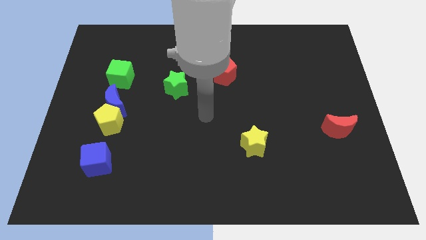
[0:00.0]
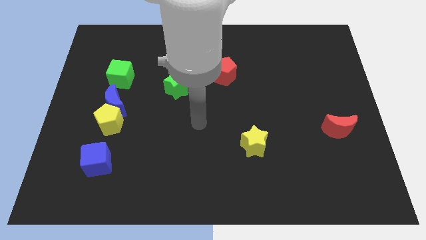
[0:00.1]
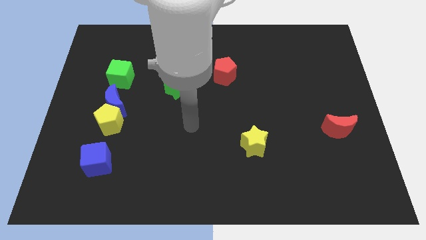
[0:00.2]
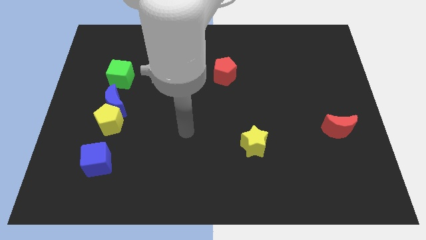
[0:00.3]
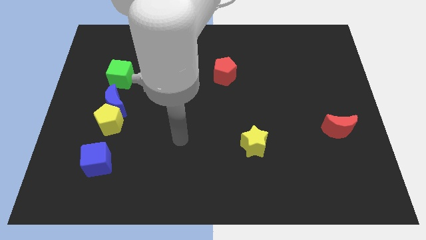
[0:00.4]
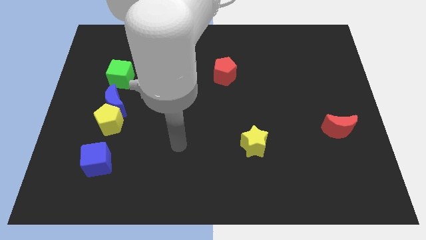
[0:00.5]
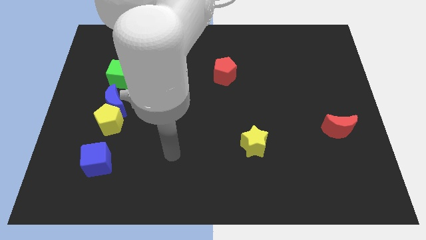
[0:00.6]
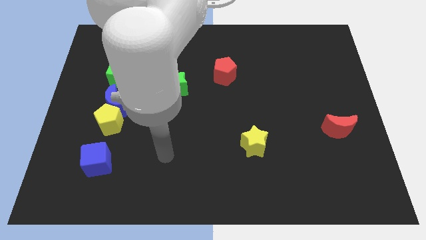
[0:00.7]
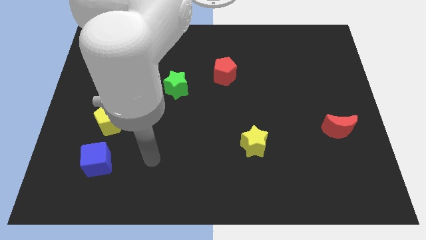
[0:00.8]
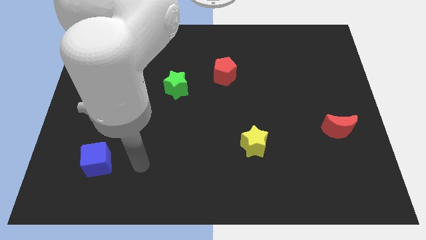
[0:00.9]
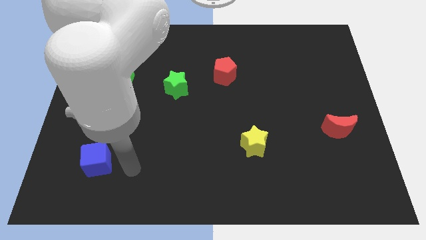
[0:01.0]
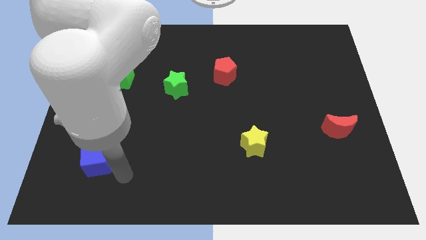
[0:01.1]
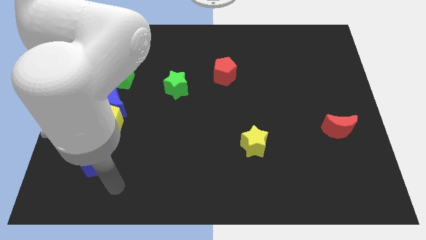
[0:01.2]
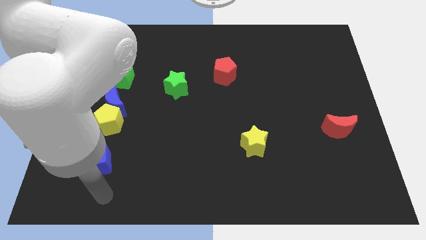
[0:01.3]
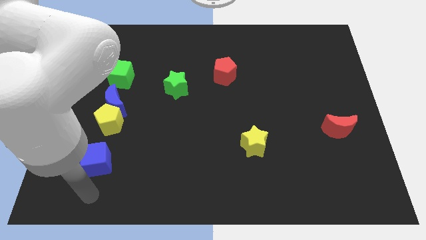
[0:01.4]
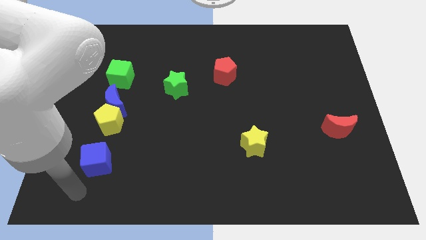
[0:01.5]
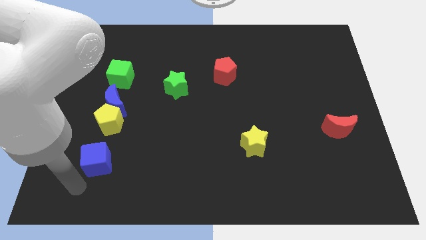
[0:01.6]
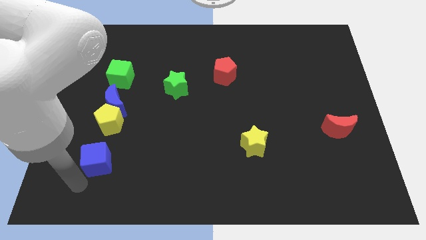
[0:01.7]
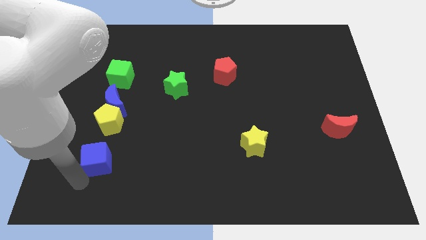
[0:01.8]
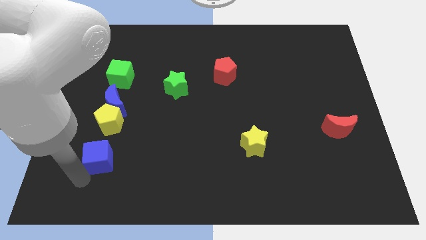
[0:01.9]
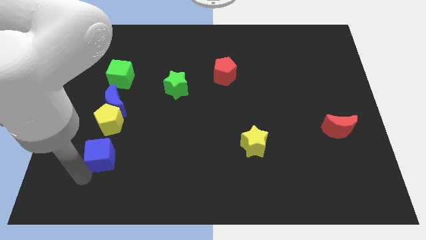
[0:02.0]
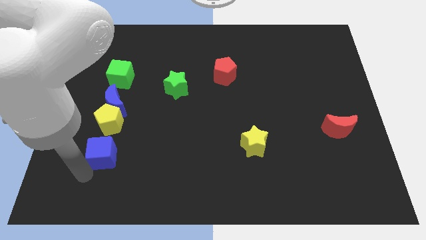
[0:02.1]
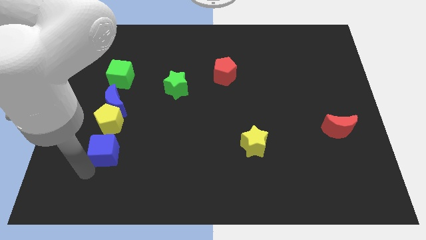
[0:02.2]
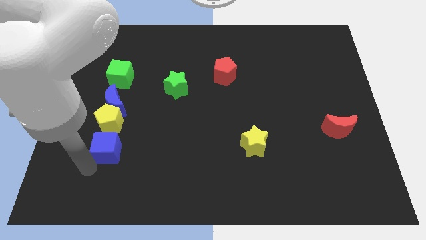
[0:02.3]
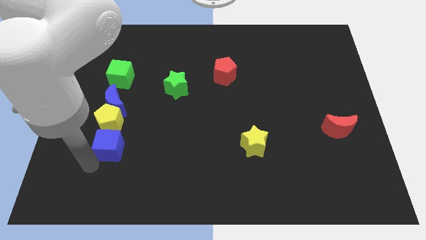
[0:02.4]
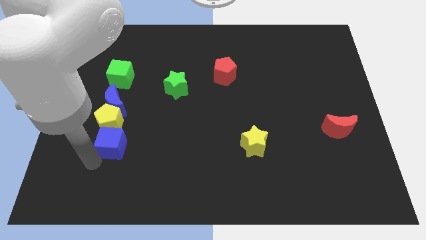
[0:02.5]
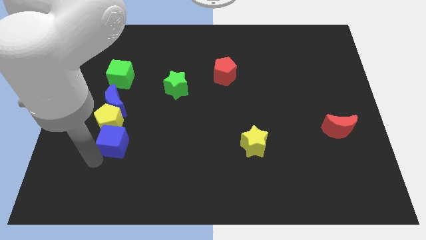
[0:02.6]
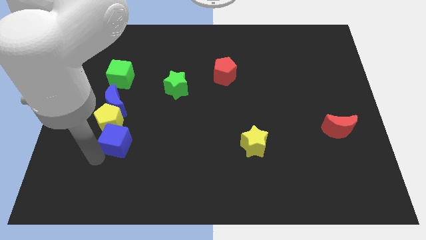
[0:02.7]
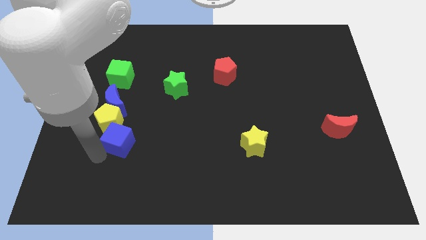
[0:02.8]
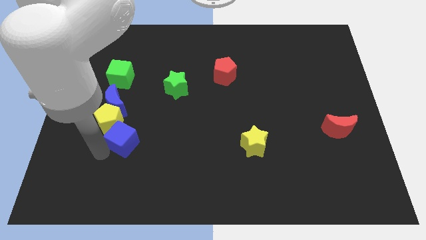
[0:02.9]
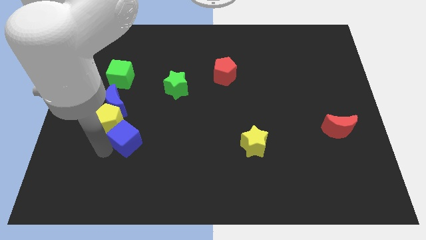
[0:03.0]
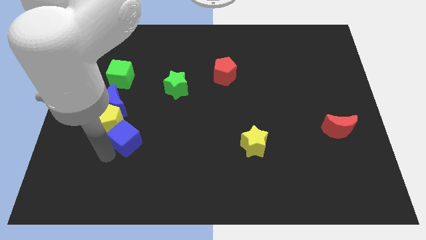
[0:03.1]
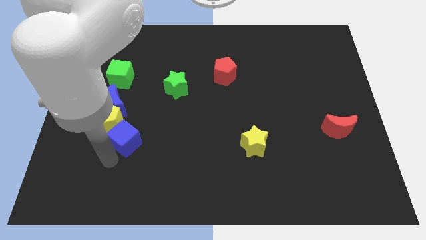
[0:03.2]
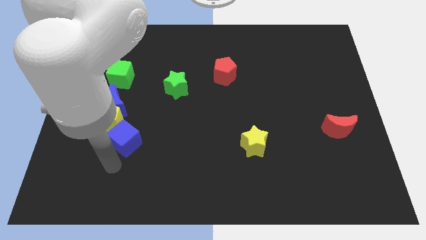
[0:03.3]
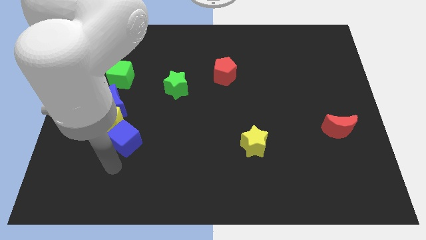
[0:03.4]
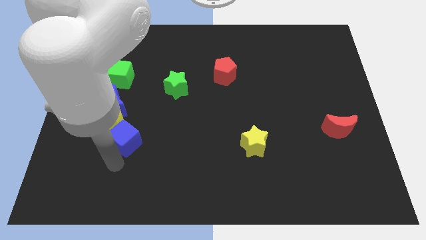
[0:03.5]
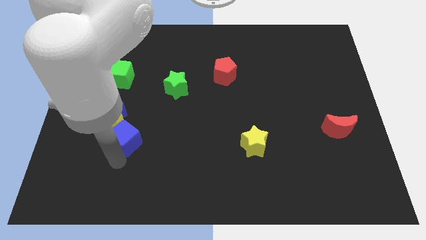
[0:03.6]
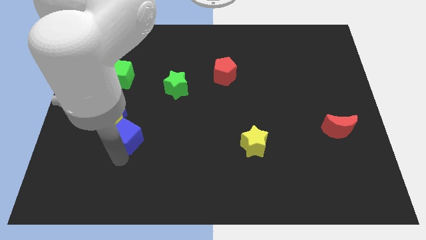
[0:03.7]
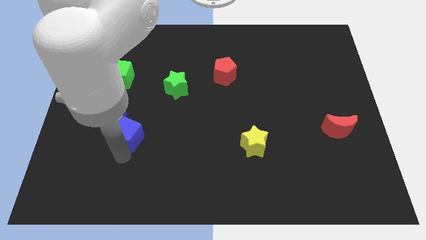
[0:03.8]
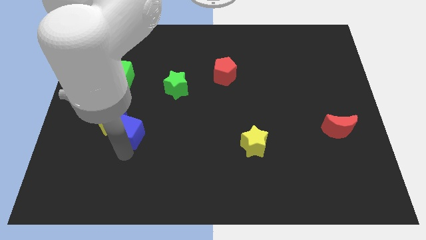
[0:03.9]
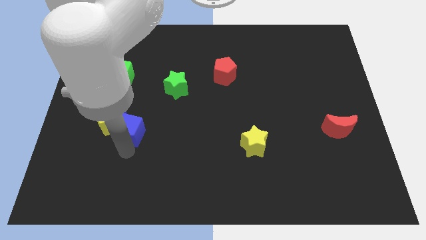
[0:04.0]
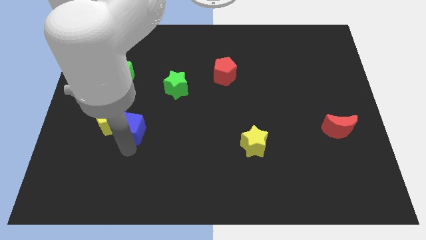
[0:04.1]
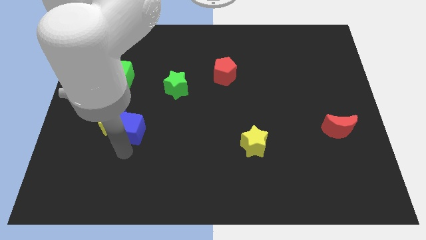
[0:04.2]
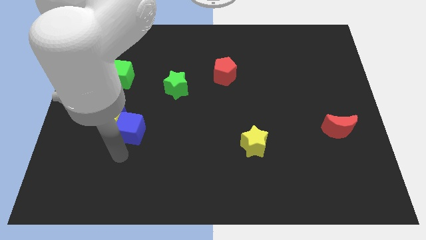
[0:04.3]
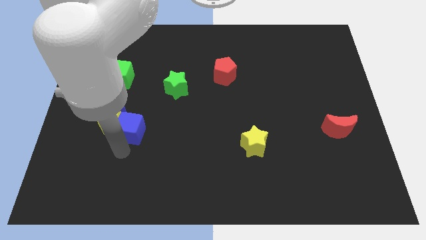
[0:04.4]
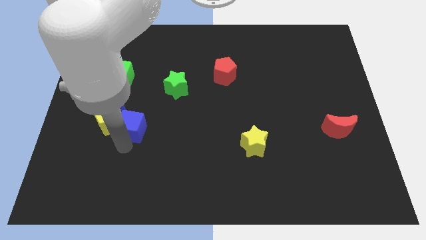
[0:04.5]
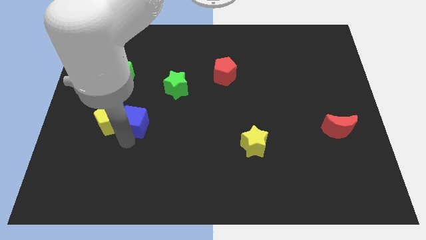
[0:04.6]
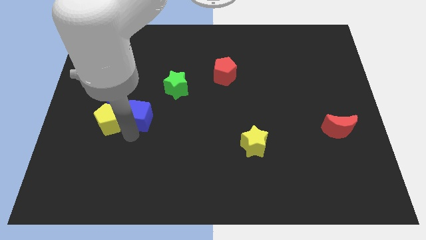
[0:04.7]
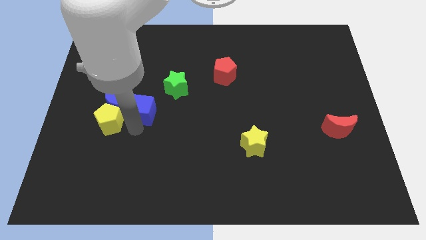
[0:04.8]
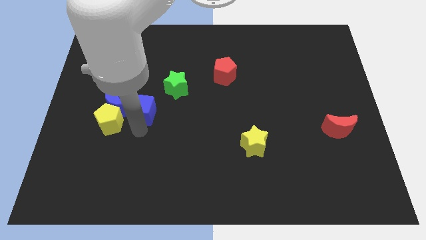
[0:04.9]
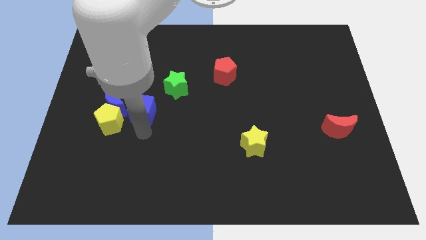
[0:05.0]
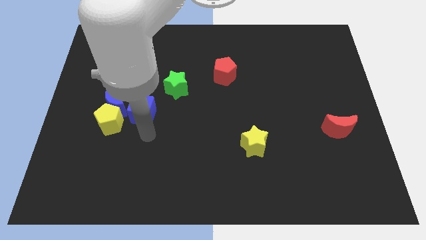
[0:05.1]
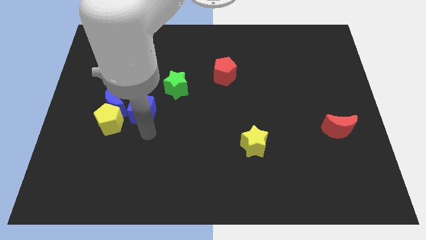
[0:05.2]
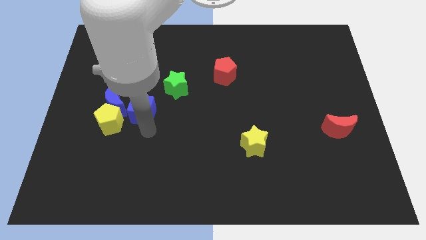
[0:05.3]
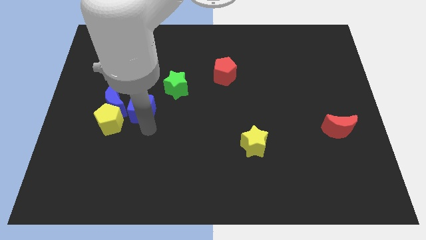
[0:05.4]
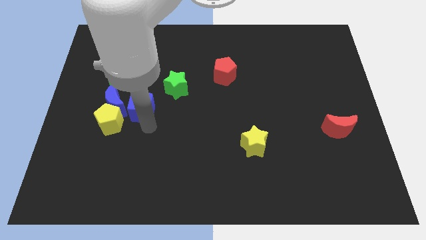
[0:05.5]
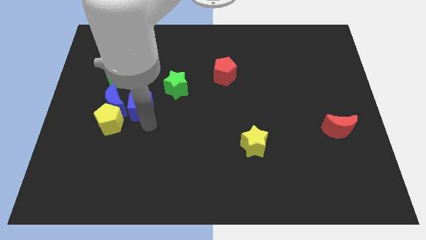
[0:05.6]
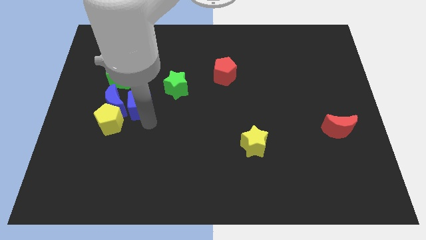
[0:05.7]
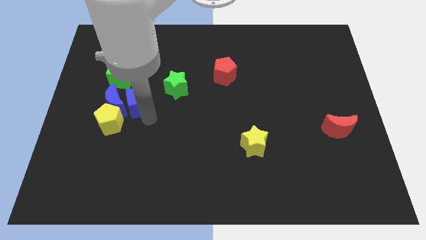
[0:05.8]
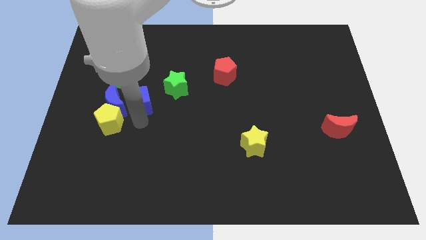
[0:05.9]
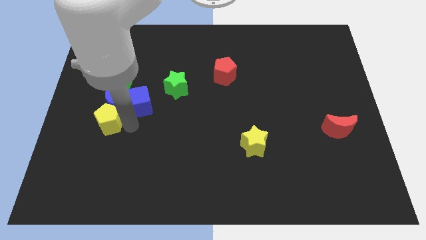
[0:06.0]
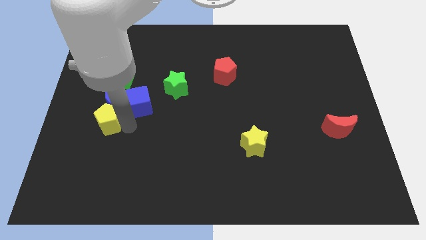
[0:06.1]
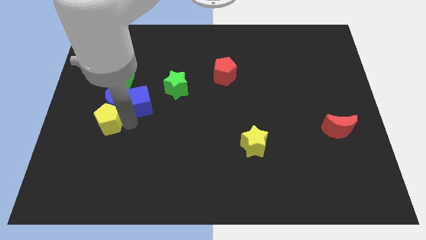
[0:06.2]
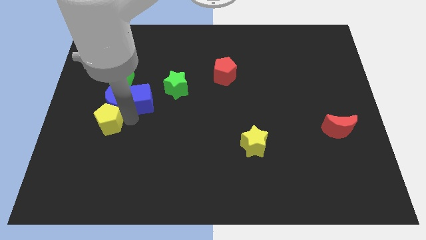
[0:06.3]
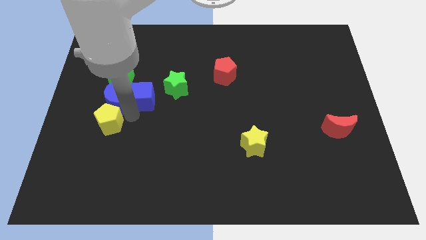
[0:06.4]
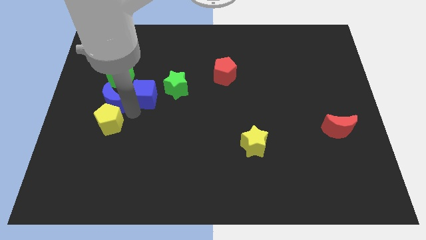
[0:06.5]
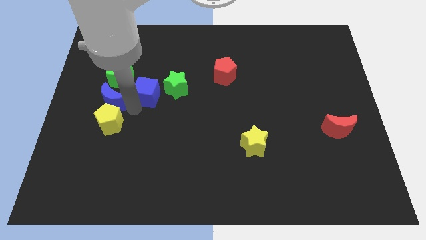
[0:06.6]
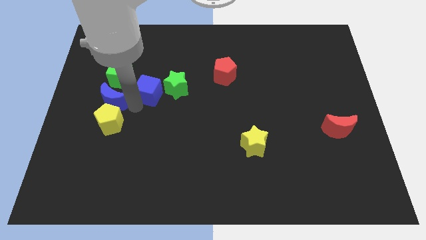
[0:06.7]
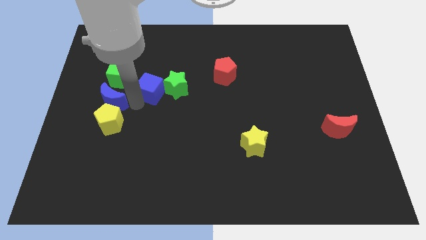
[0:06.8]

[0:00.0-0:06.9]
put the blue cube diagonally up and to the left of the green star
